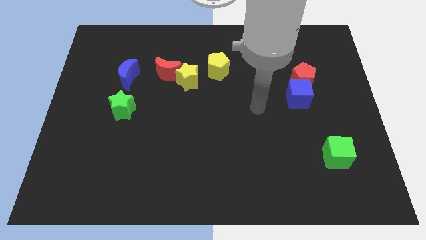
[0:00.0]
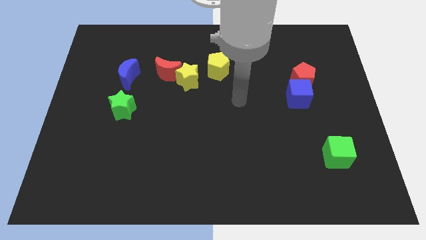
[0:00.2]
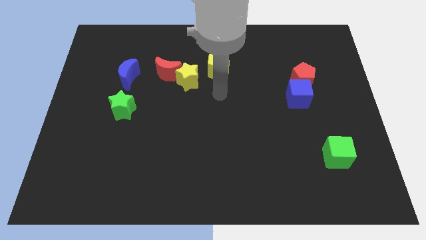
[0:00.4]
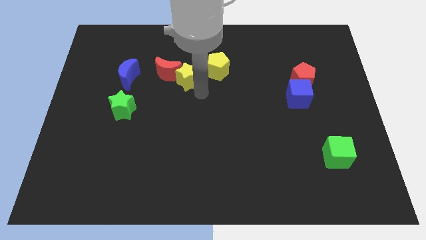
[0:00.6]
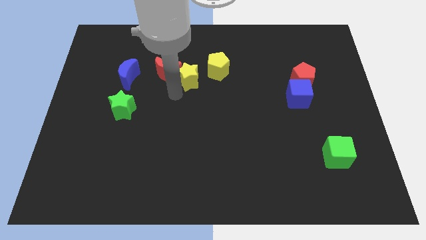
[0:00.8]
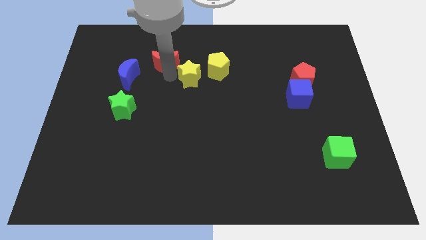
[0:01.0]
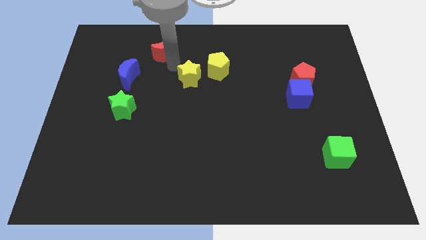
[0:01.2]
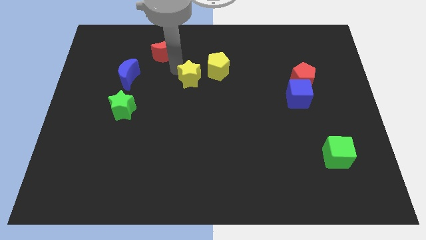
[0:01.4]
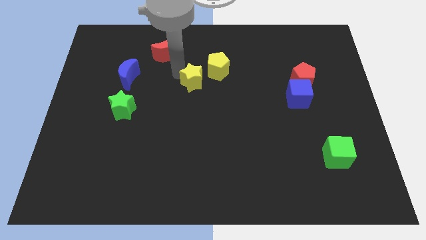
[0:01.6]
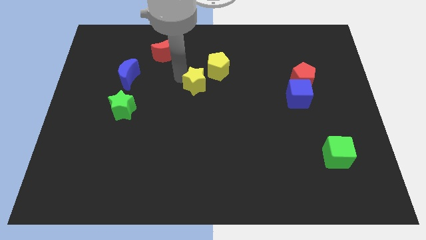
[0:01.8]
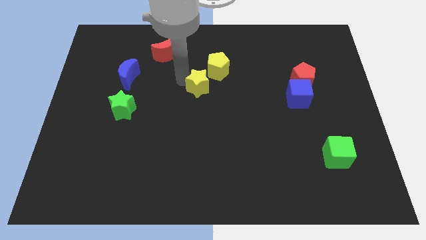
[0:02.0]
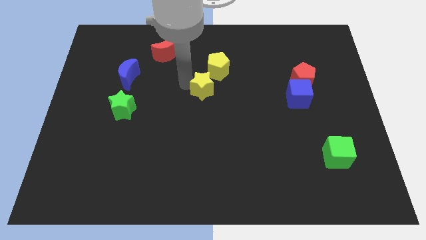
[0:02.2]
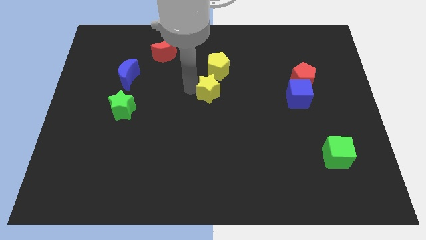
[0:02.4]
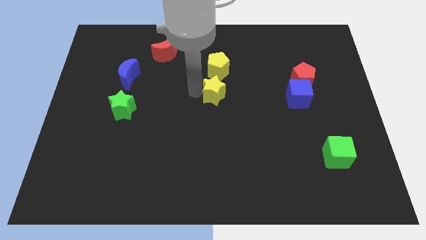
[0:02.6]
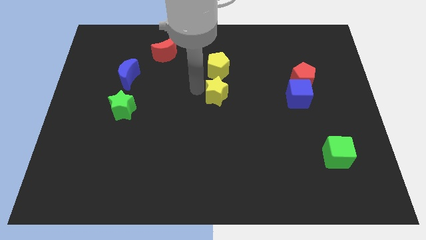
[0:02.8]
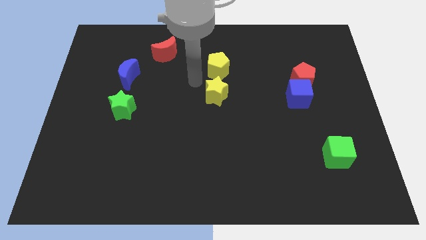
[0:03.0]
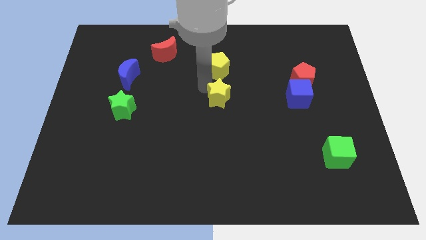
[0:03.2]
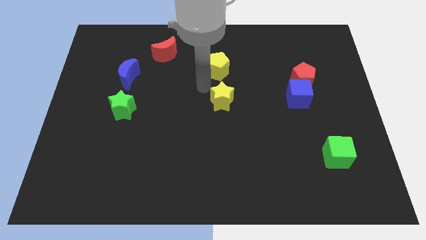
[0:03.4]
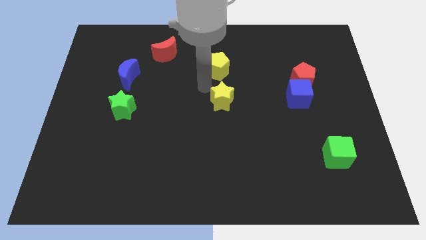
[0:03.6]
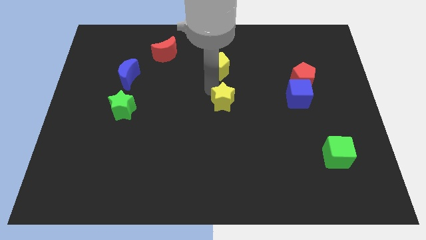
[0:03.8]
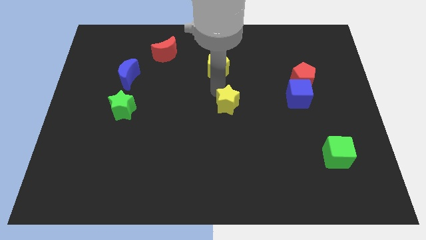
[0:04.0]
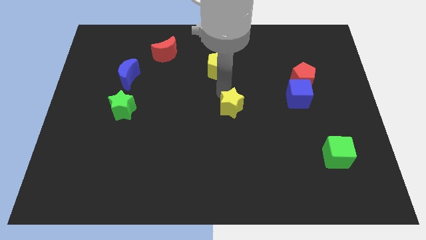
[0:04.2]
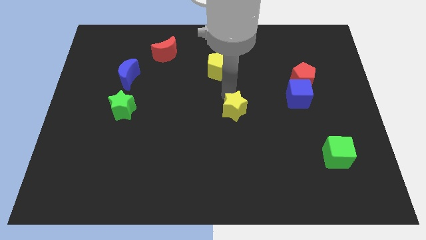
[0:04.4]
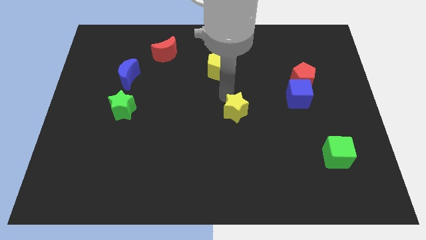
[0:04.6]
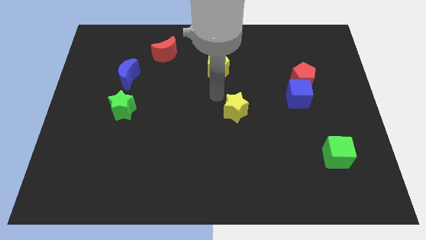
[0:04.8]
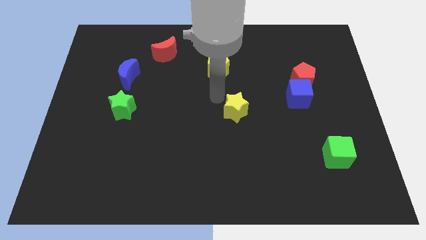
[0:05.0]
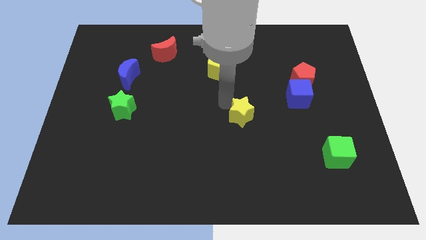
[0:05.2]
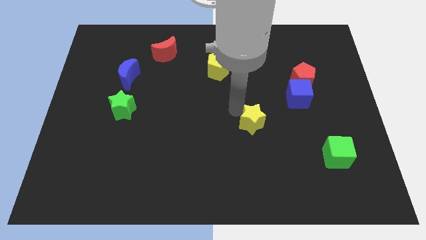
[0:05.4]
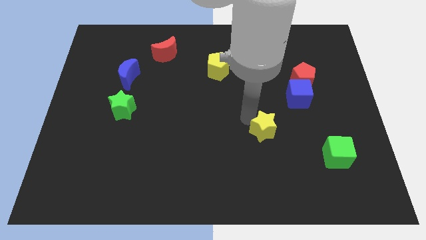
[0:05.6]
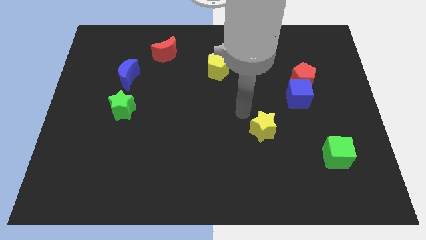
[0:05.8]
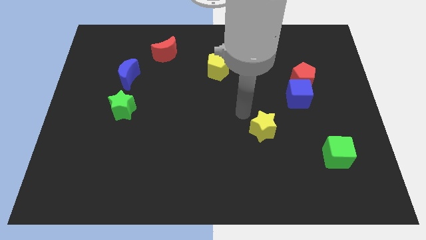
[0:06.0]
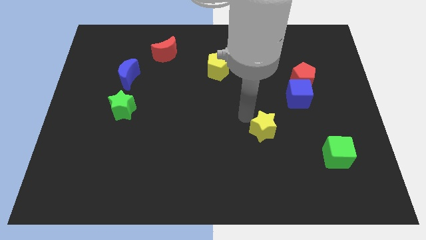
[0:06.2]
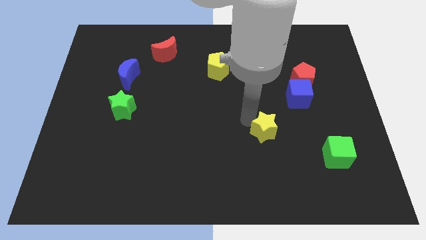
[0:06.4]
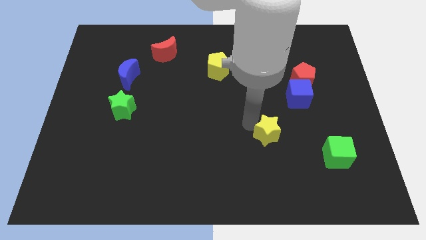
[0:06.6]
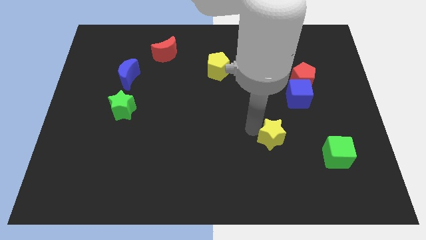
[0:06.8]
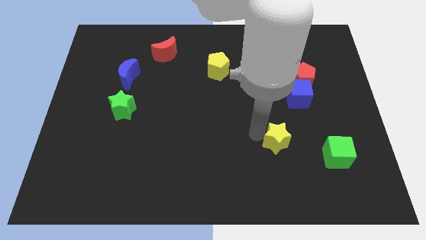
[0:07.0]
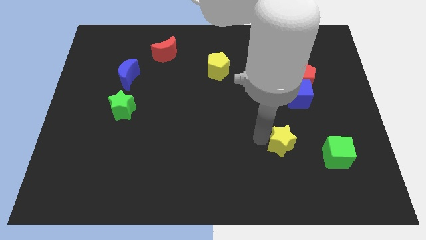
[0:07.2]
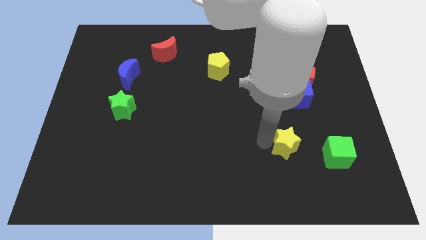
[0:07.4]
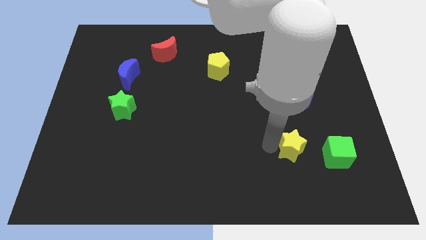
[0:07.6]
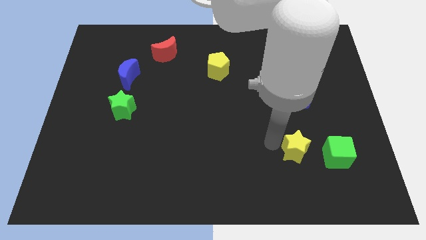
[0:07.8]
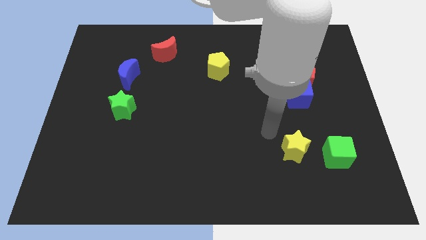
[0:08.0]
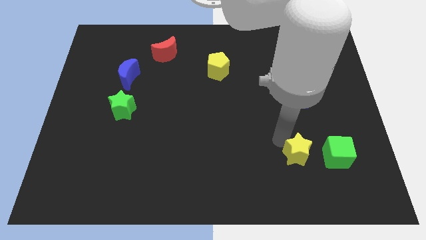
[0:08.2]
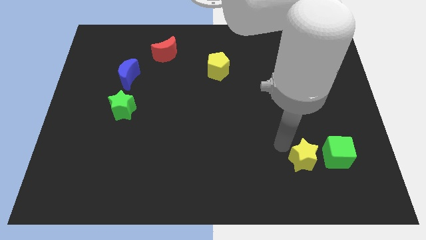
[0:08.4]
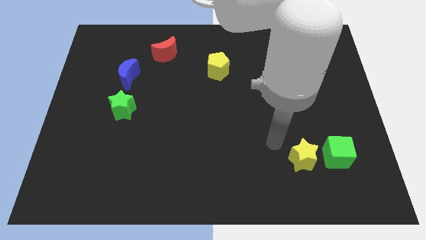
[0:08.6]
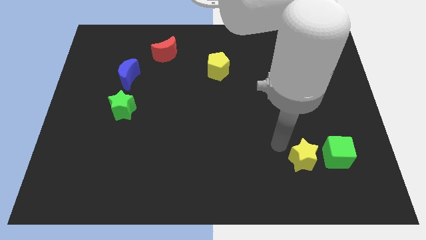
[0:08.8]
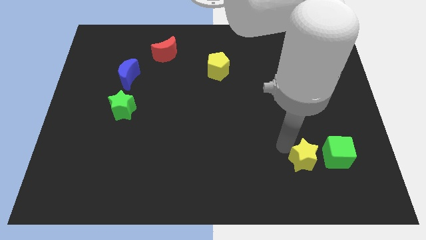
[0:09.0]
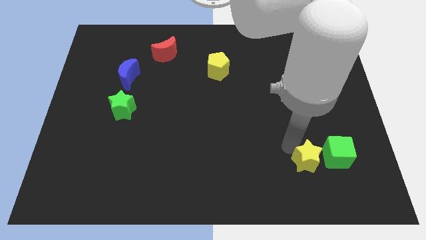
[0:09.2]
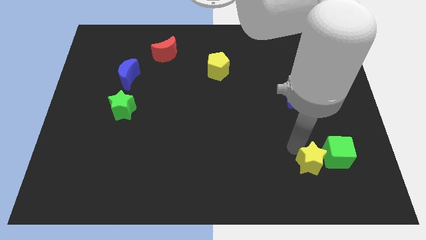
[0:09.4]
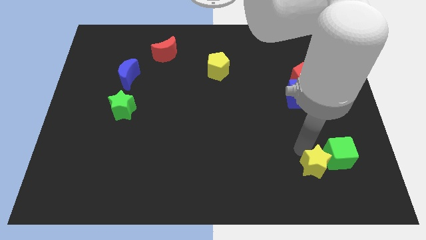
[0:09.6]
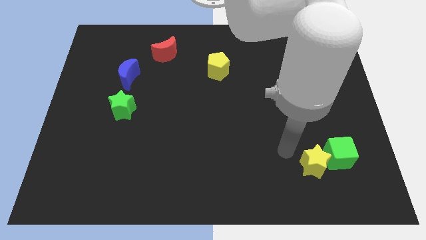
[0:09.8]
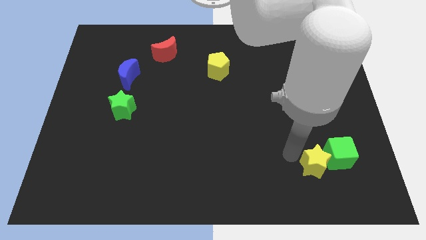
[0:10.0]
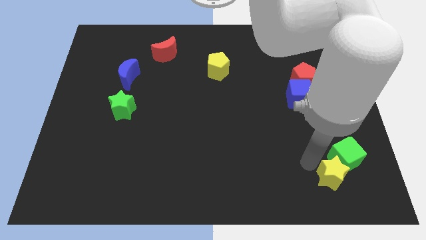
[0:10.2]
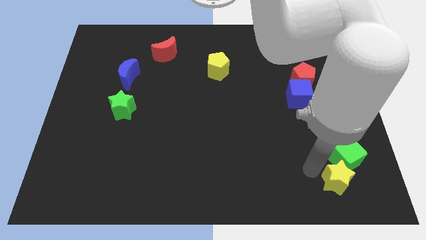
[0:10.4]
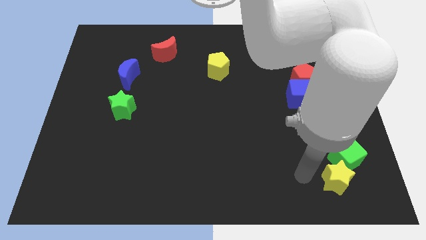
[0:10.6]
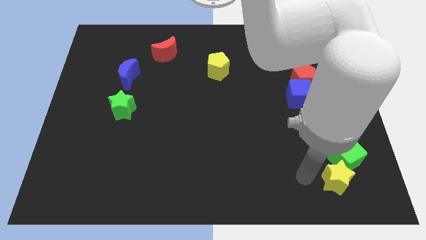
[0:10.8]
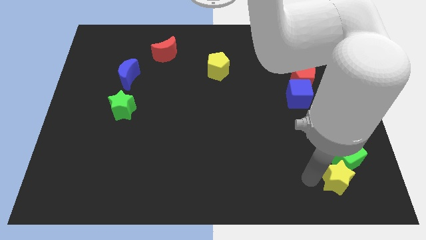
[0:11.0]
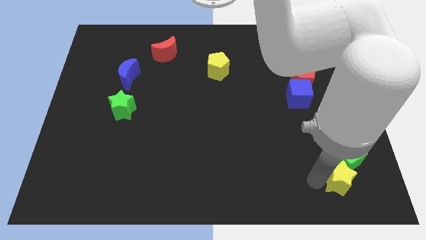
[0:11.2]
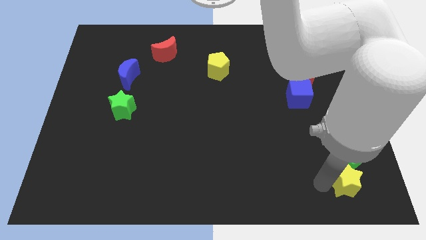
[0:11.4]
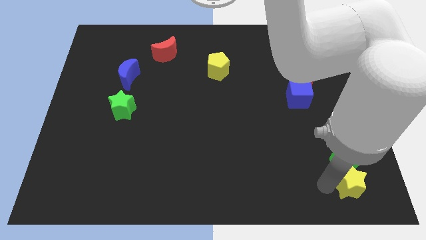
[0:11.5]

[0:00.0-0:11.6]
slide the yellow star to the bottom right

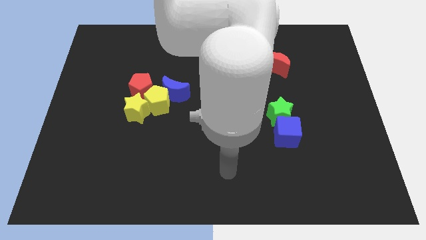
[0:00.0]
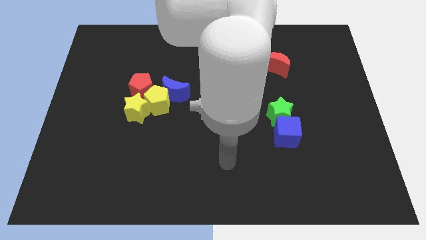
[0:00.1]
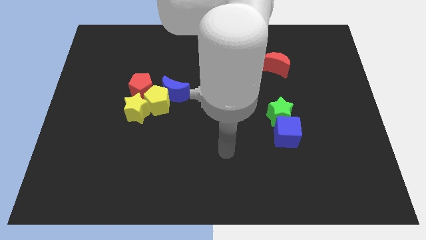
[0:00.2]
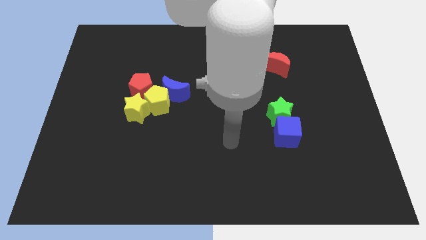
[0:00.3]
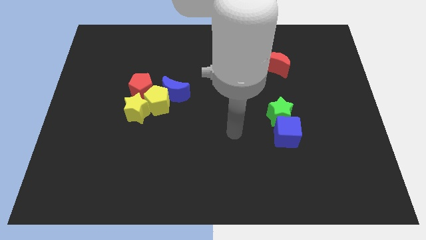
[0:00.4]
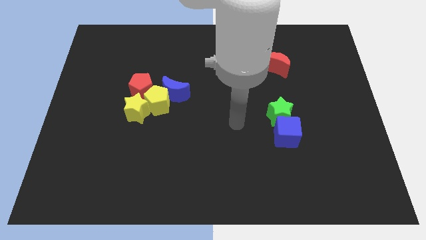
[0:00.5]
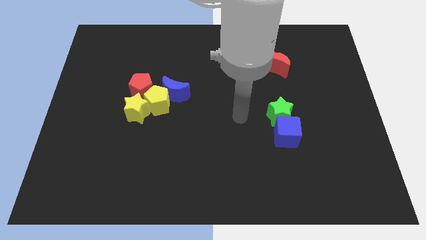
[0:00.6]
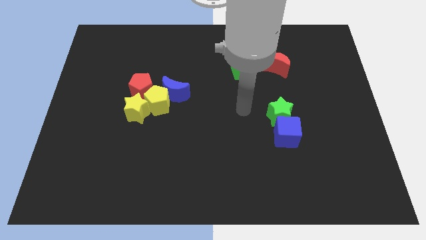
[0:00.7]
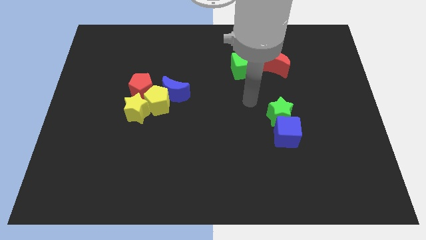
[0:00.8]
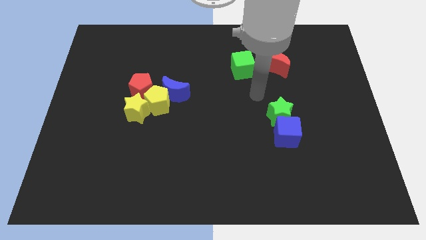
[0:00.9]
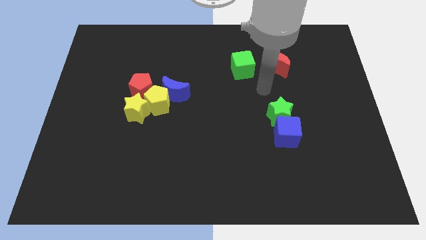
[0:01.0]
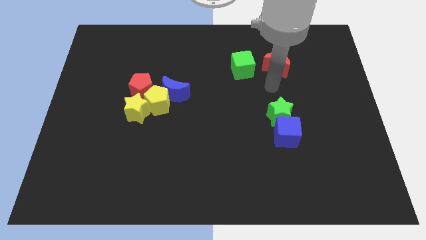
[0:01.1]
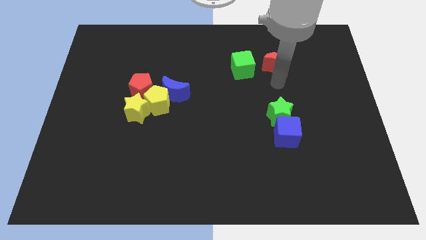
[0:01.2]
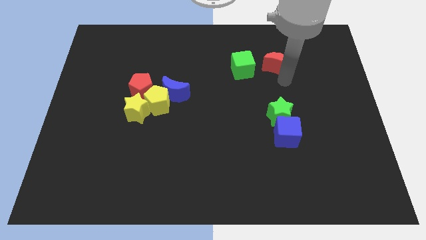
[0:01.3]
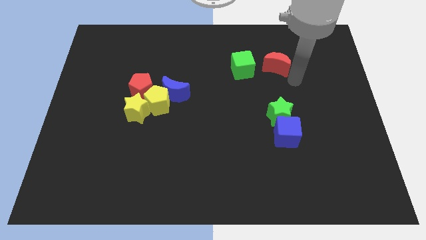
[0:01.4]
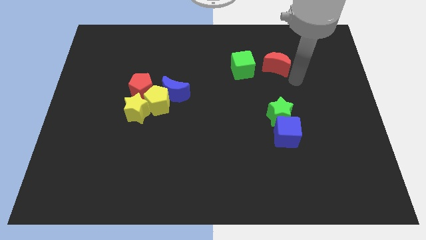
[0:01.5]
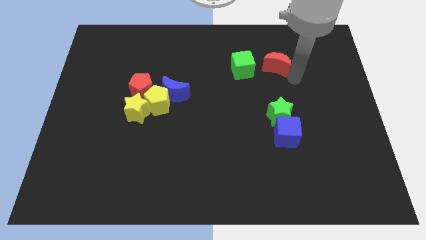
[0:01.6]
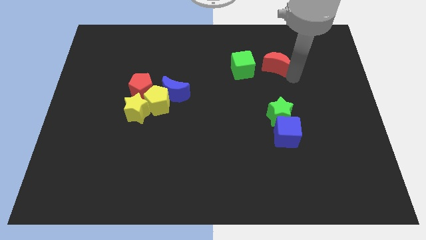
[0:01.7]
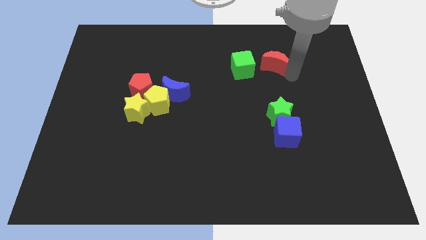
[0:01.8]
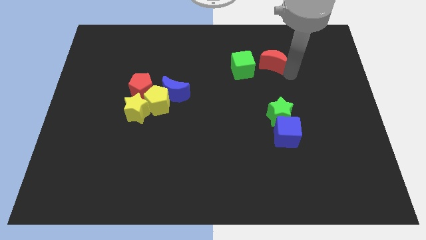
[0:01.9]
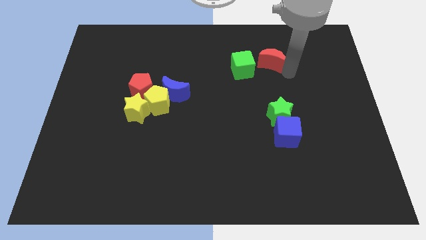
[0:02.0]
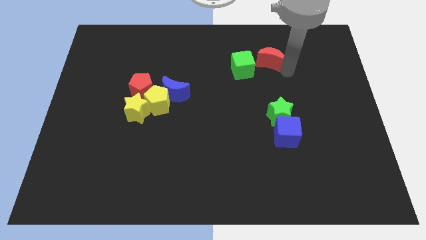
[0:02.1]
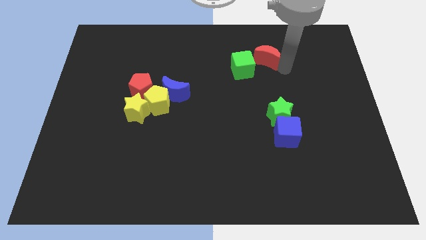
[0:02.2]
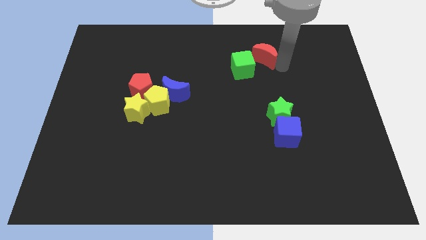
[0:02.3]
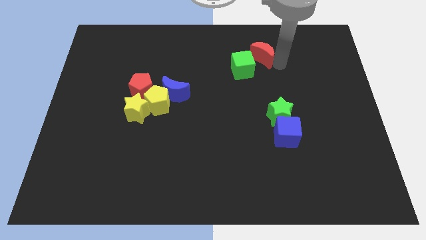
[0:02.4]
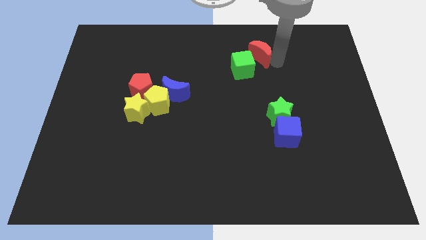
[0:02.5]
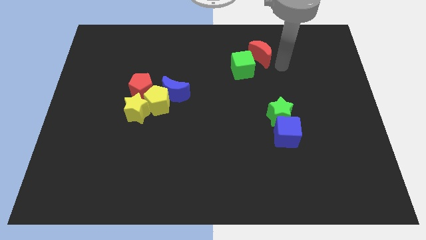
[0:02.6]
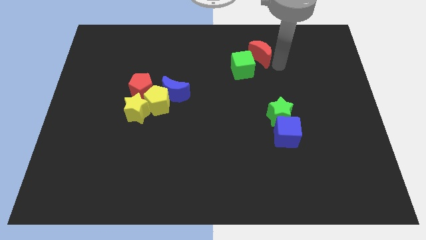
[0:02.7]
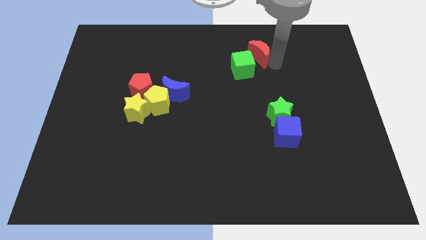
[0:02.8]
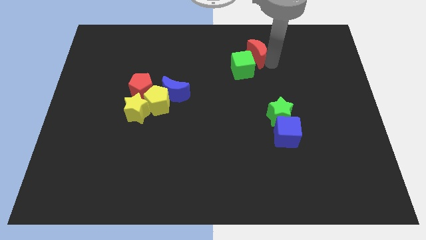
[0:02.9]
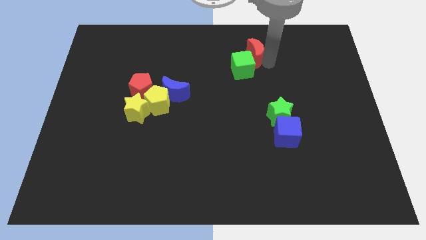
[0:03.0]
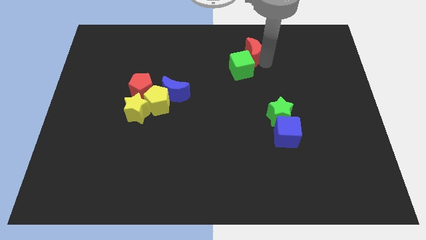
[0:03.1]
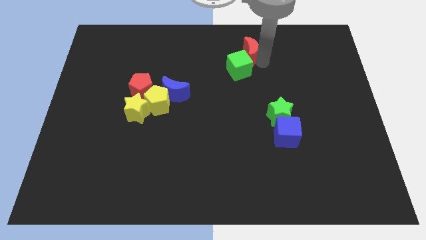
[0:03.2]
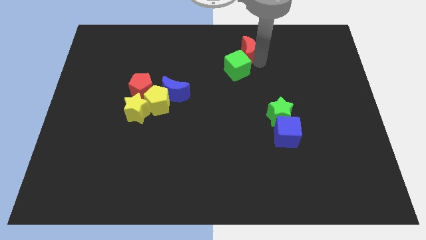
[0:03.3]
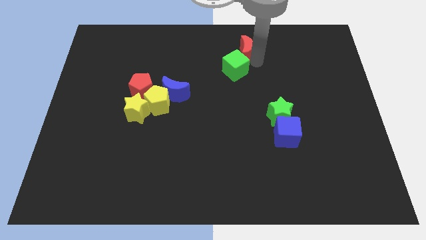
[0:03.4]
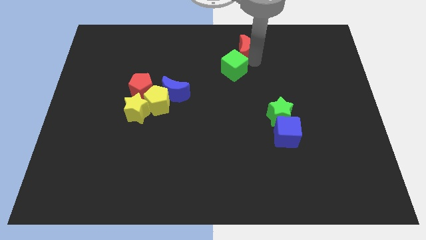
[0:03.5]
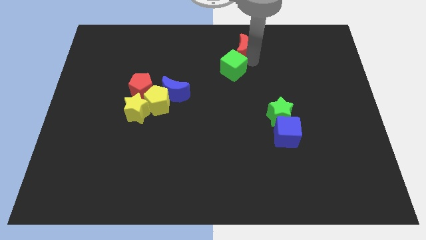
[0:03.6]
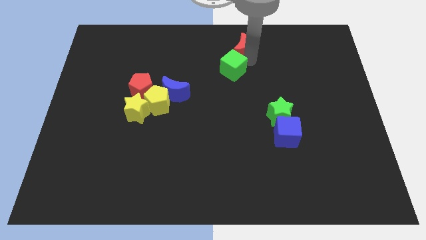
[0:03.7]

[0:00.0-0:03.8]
push the red moon to the top
